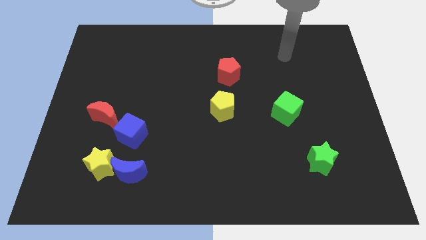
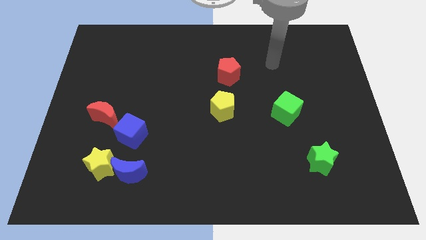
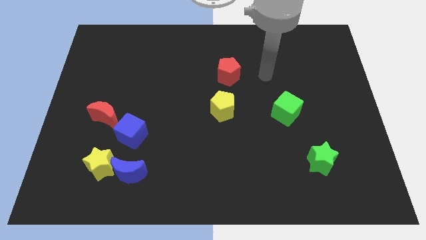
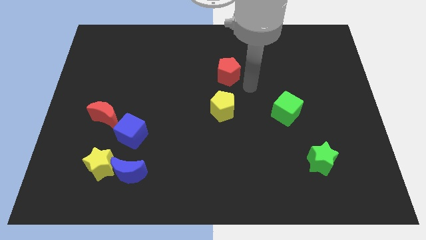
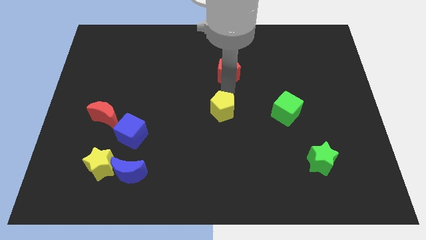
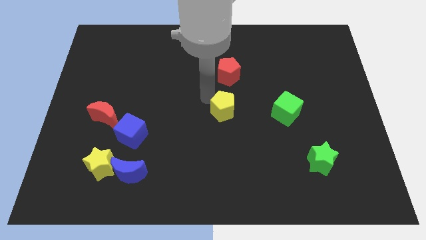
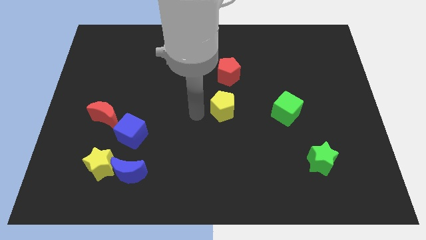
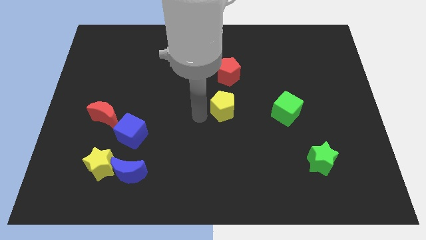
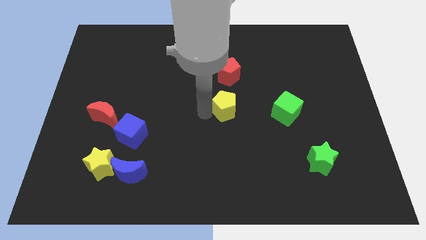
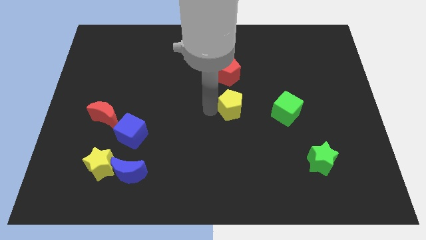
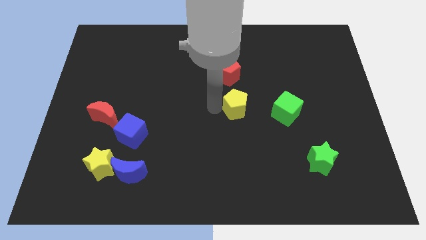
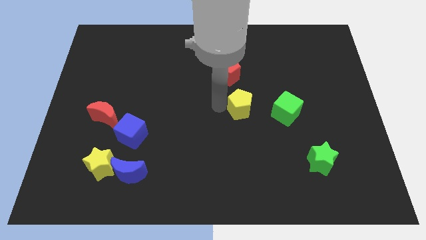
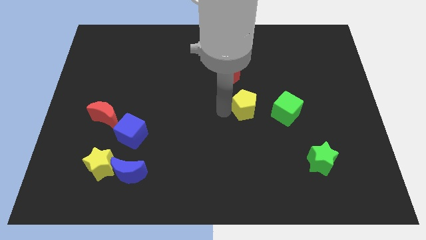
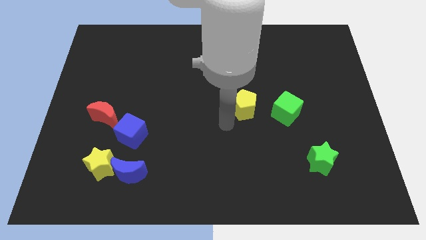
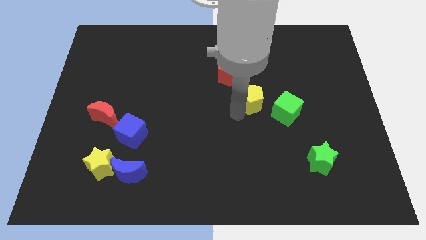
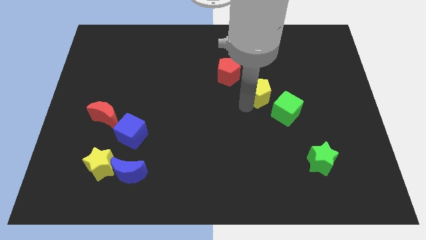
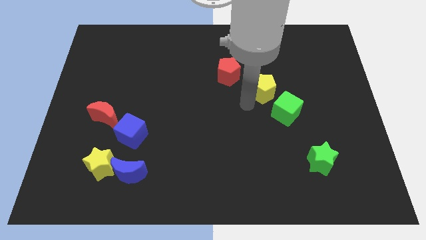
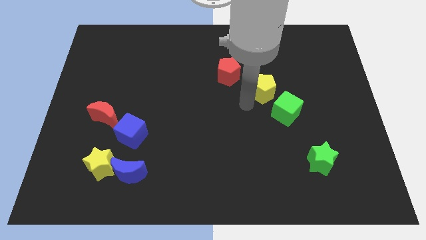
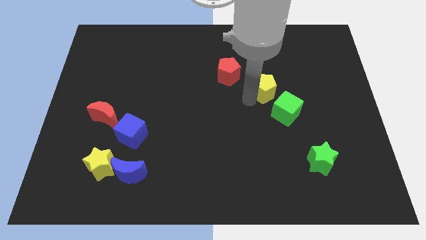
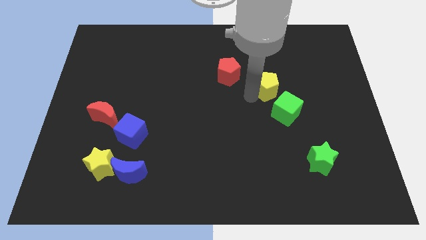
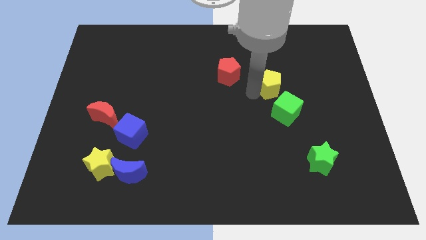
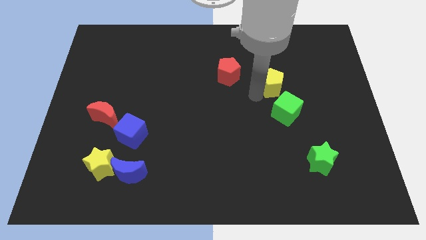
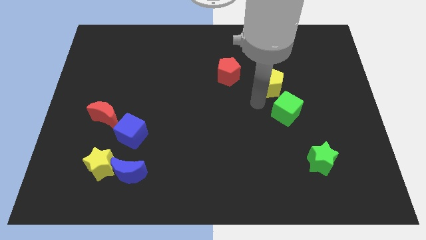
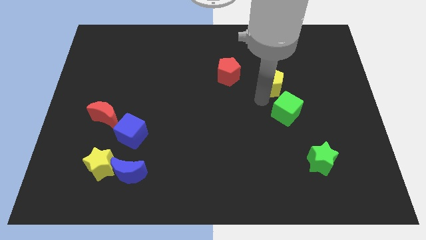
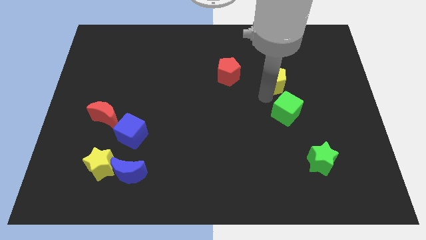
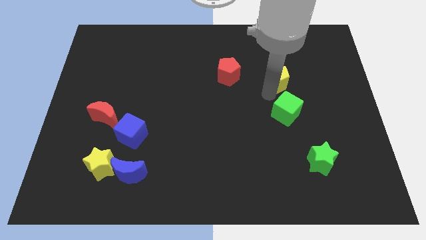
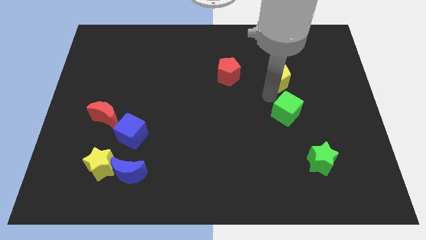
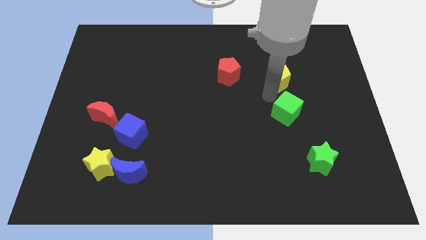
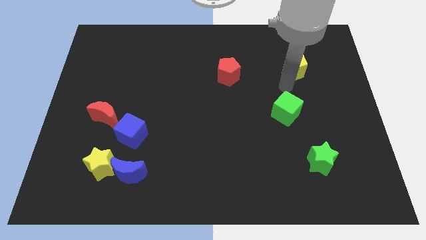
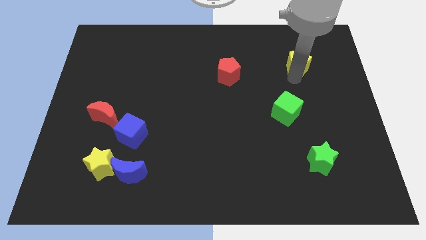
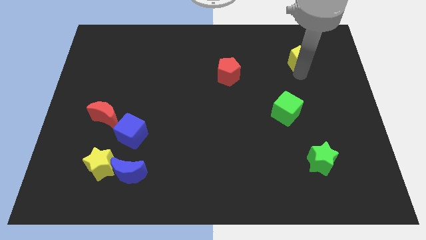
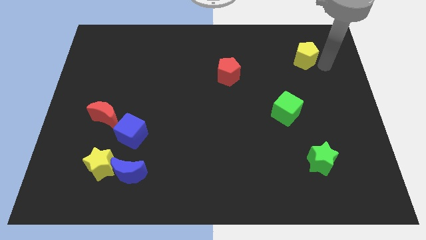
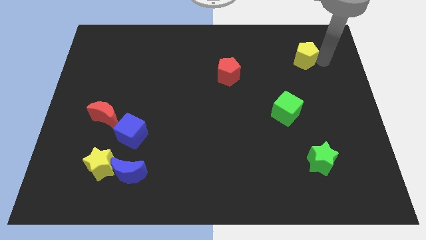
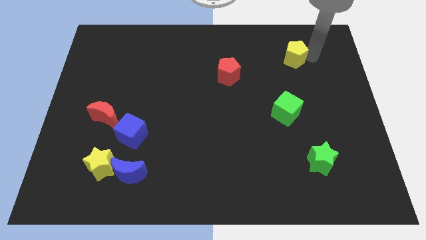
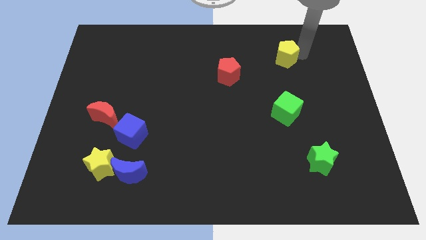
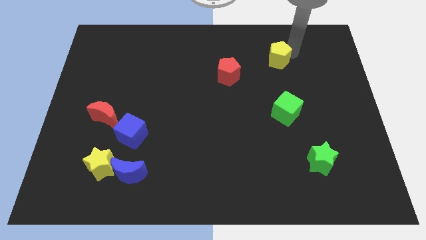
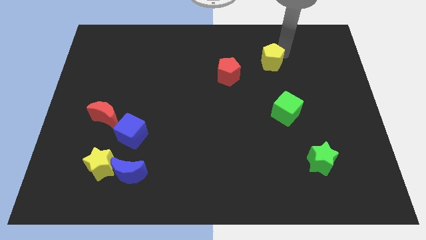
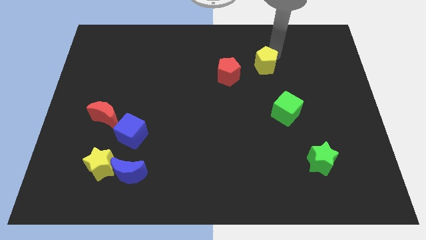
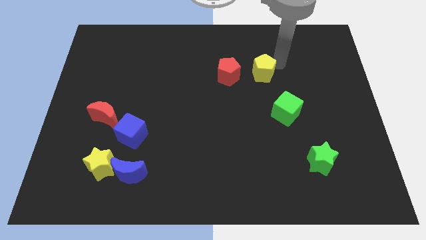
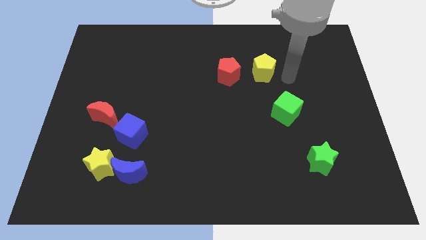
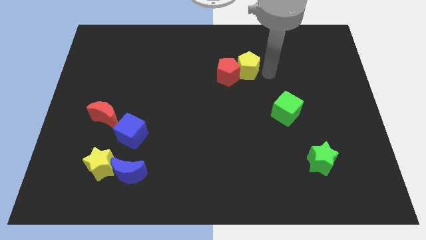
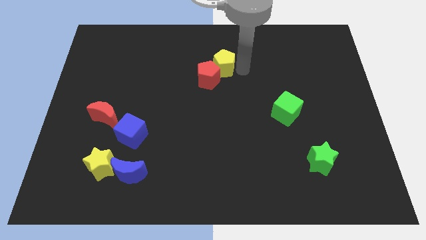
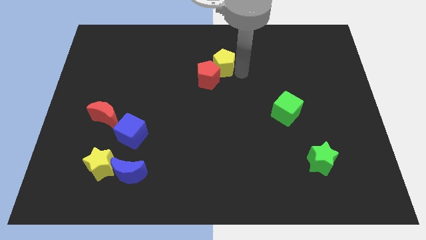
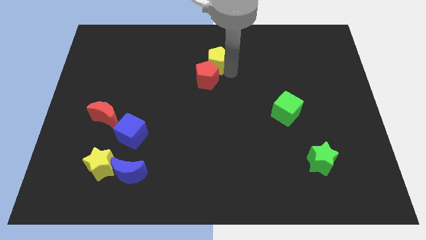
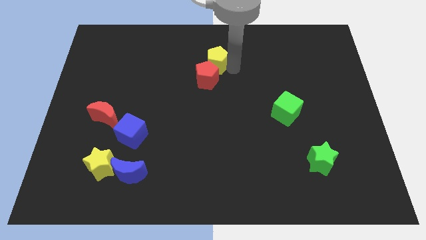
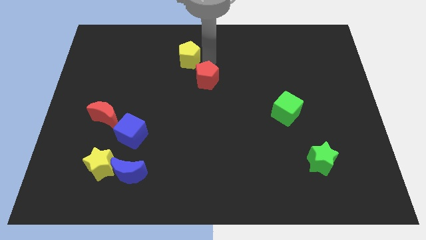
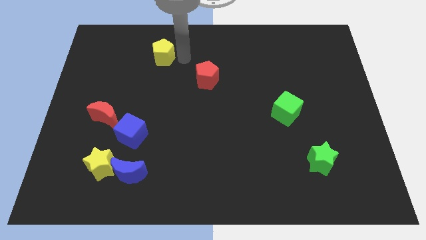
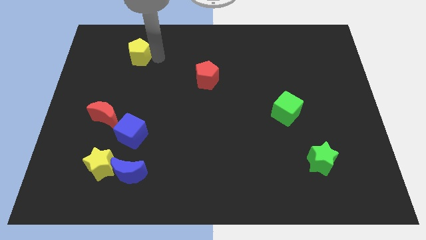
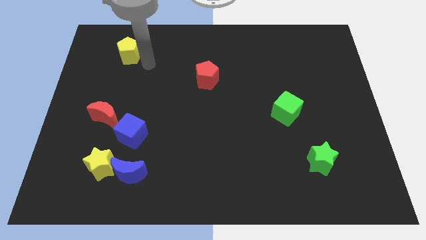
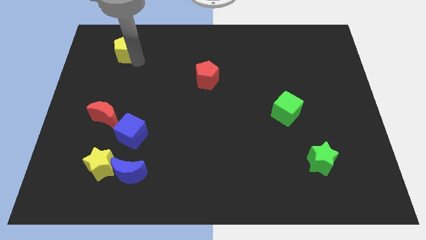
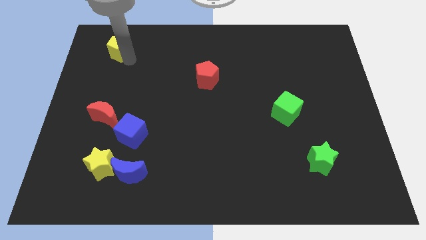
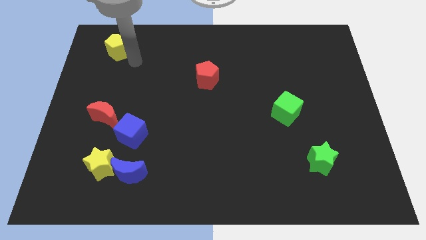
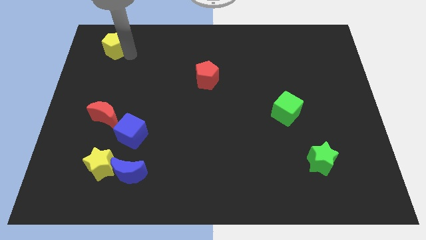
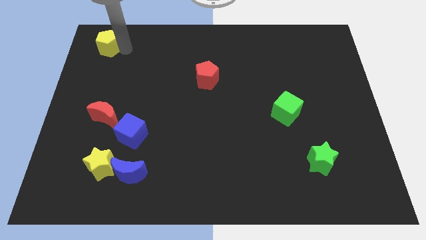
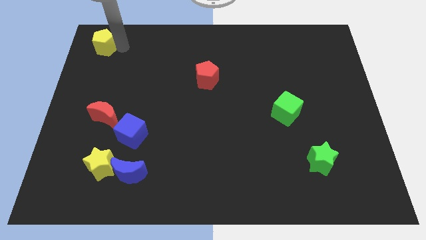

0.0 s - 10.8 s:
put the yellow pentagon to the top left of the board

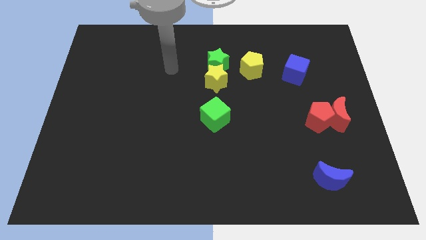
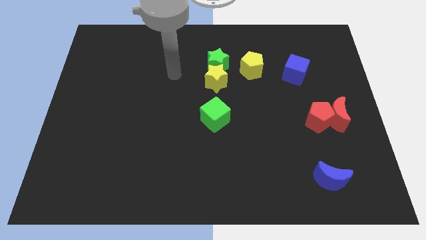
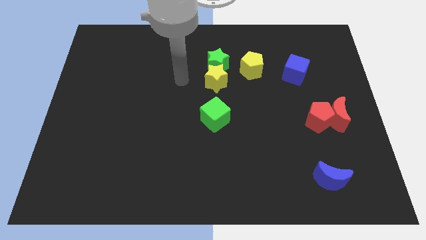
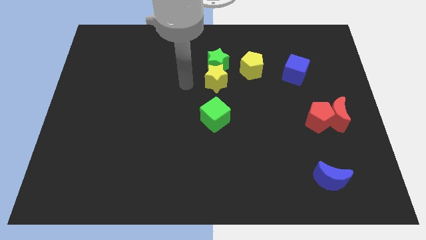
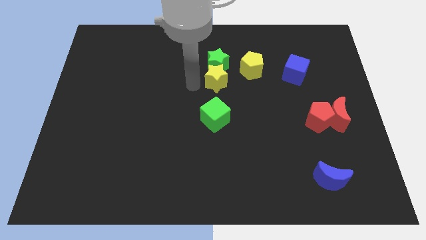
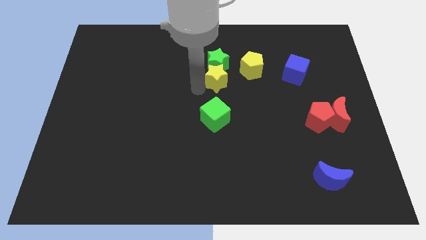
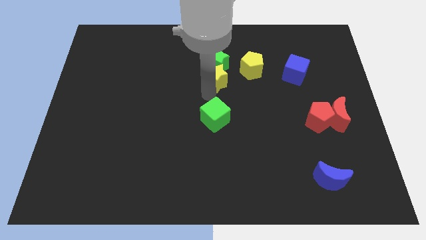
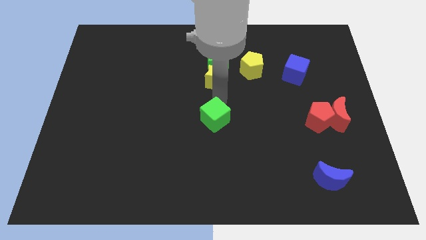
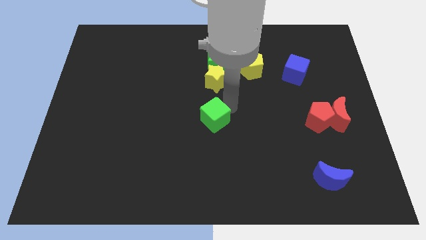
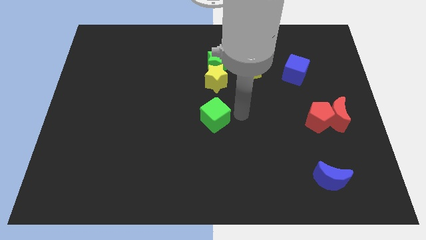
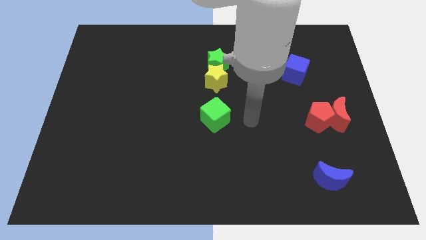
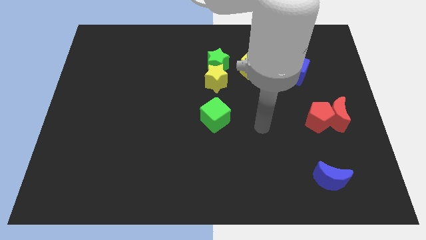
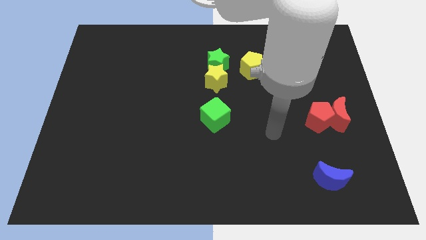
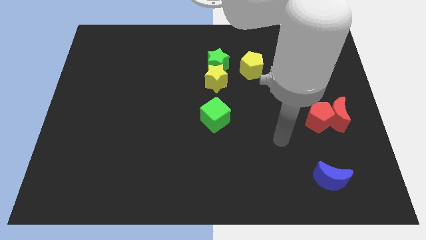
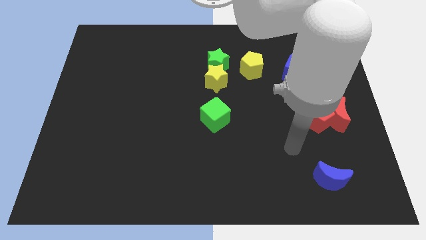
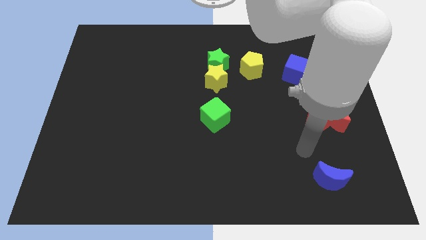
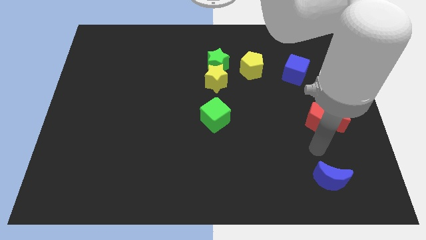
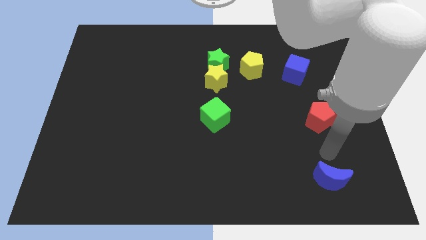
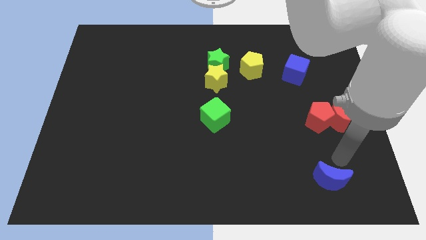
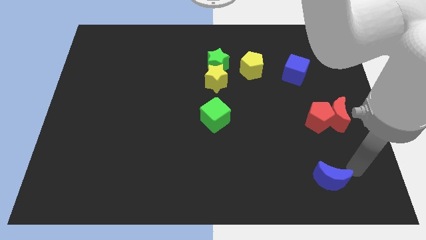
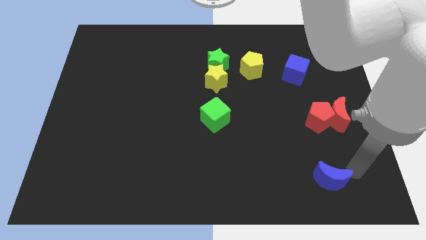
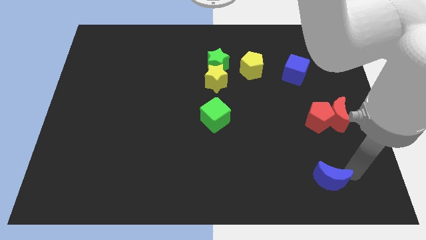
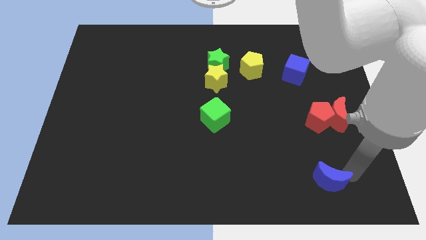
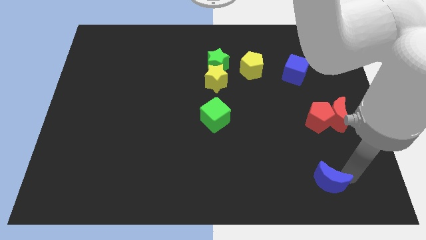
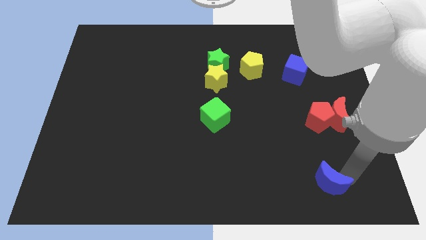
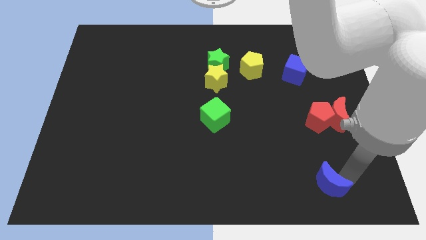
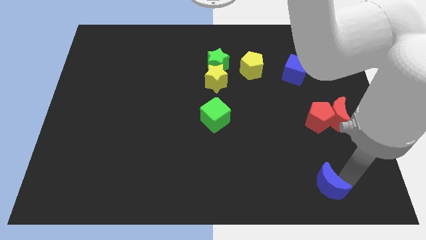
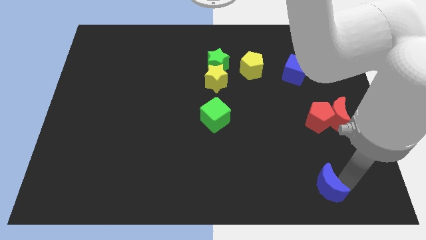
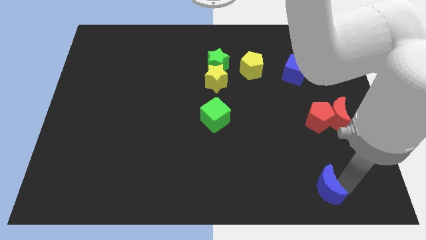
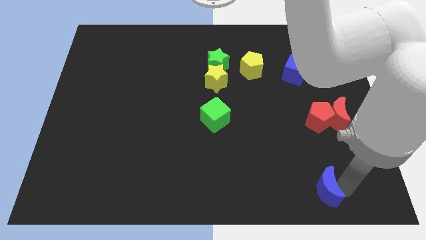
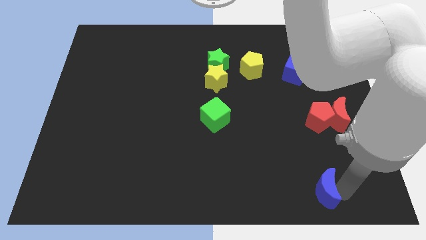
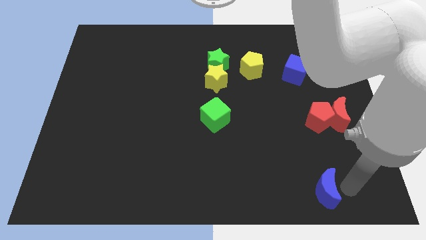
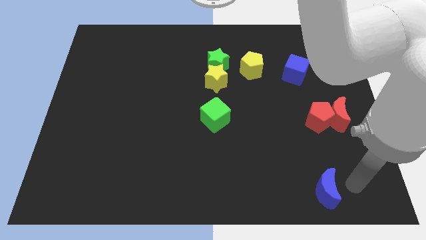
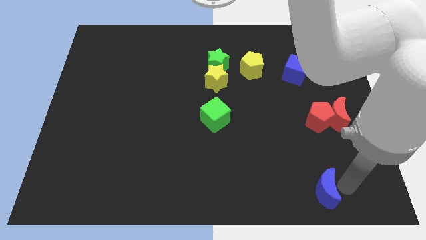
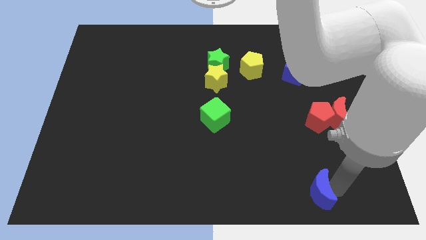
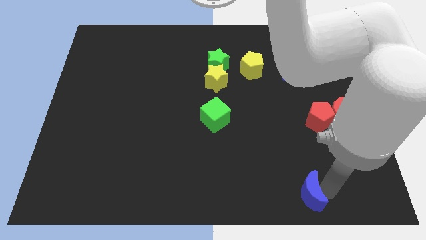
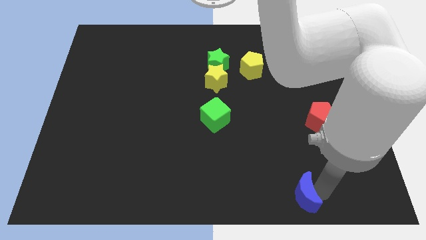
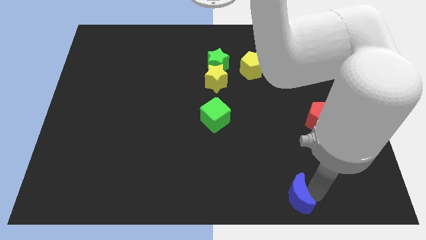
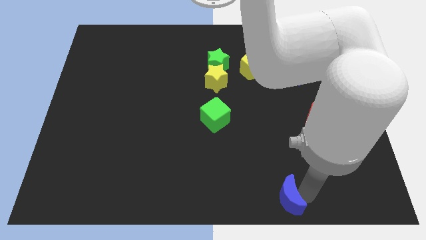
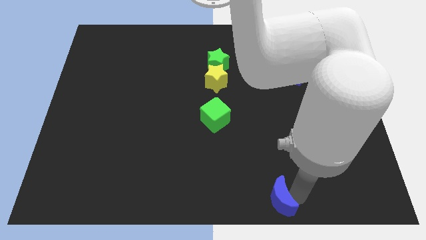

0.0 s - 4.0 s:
put the blue moon to the bottom side
